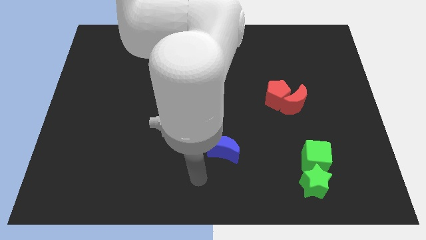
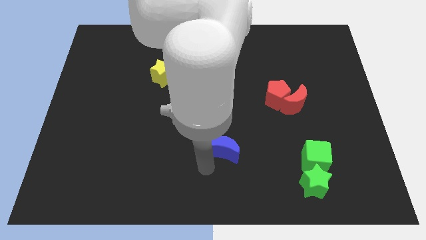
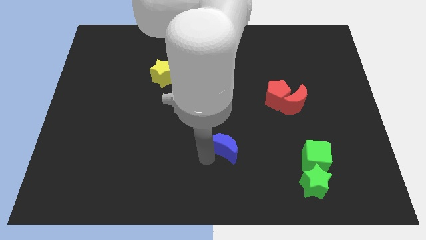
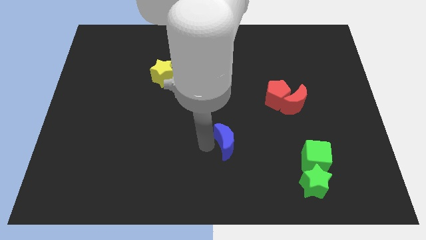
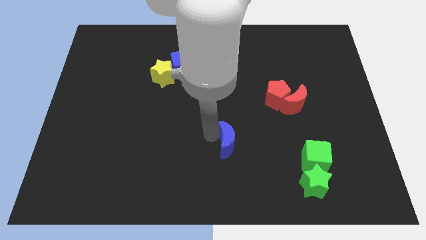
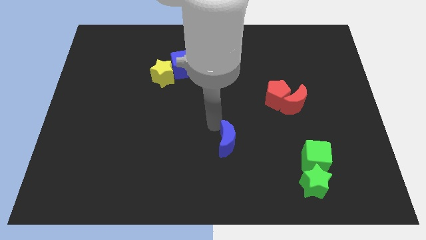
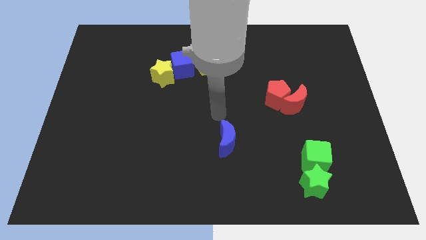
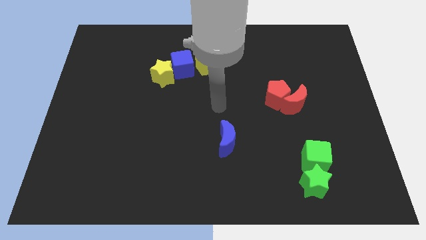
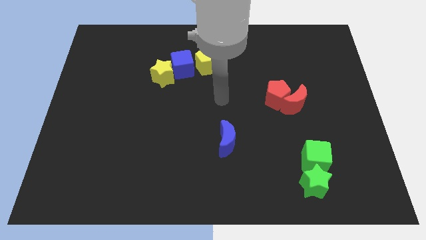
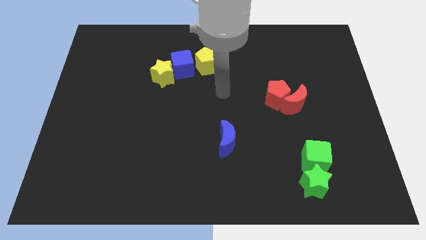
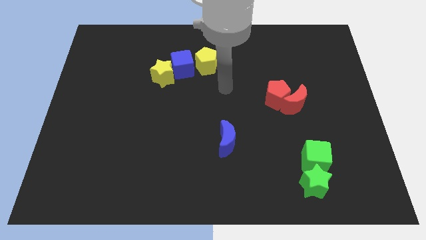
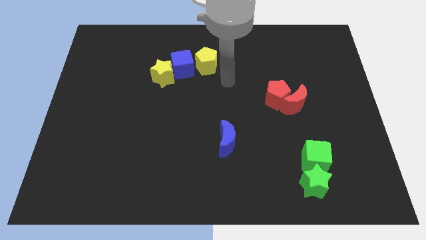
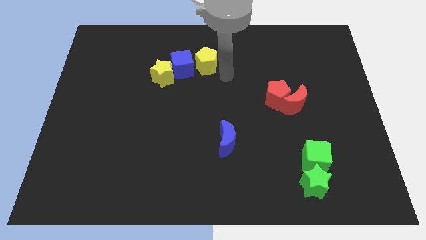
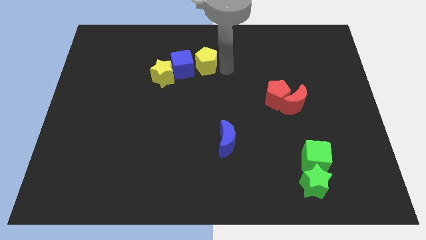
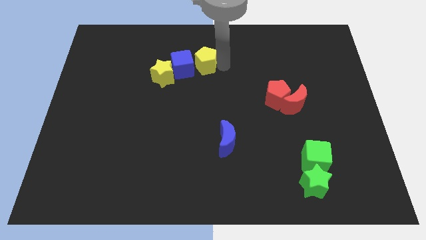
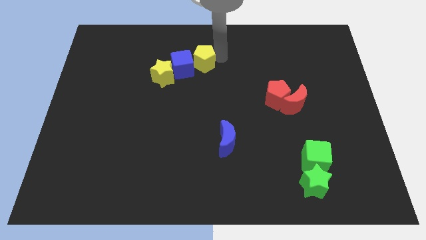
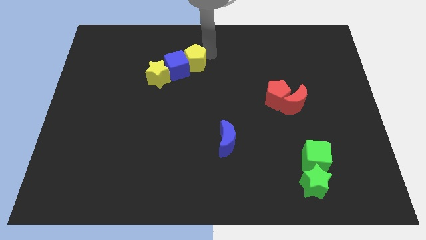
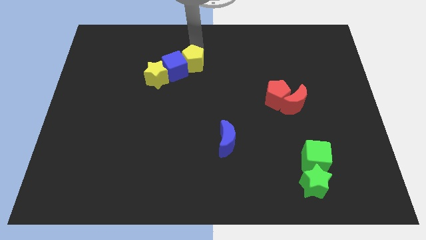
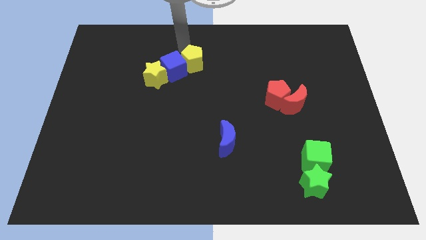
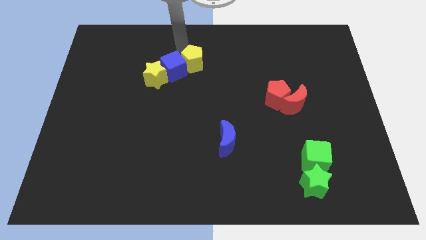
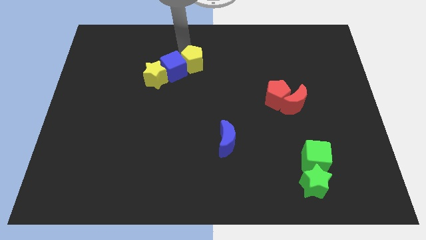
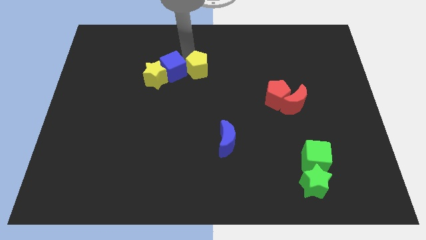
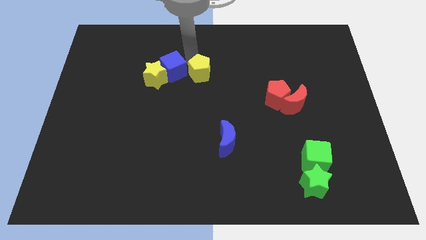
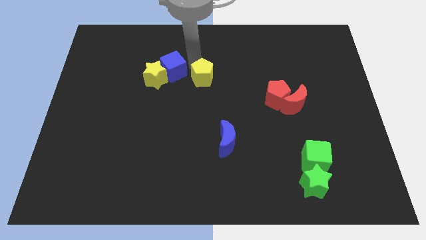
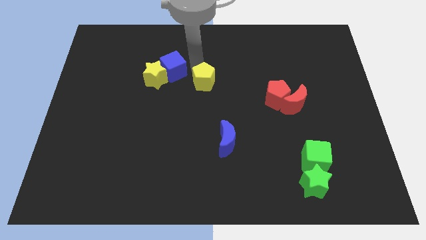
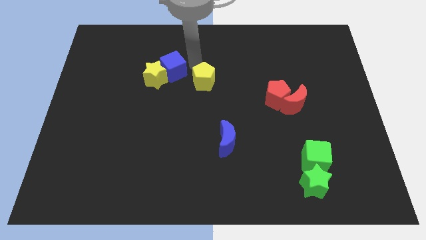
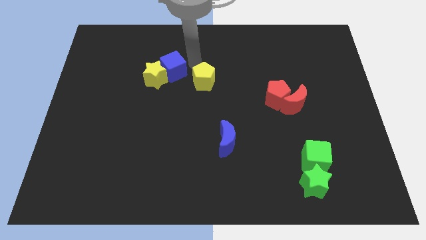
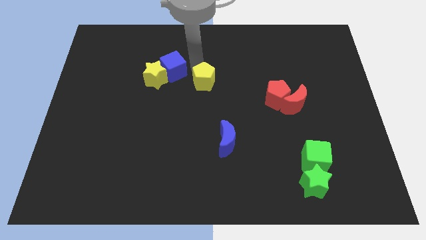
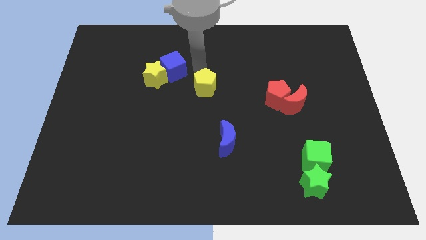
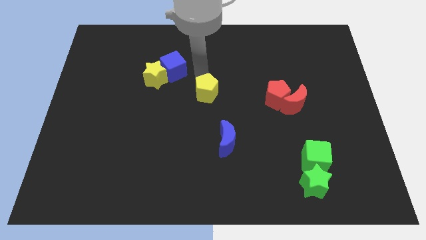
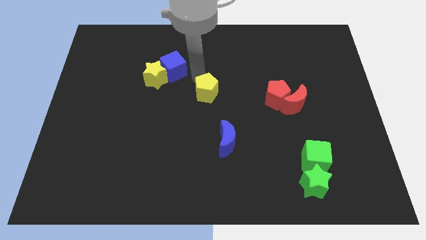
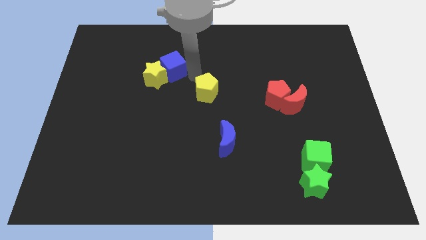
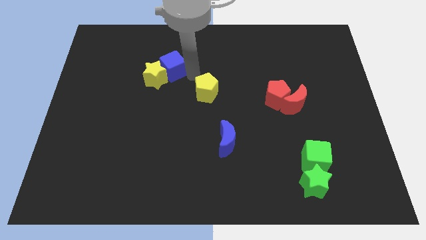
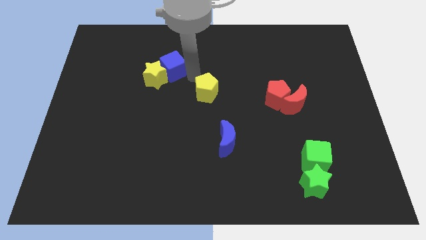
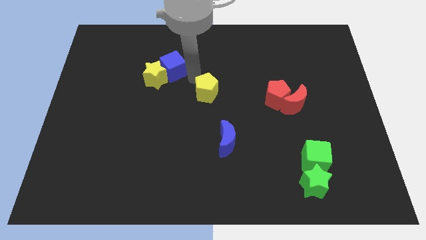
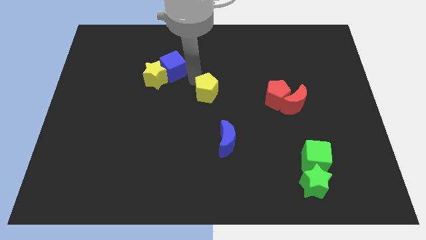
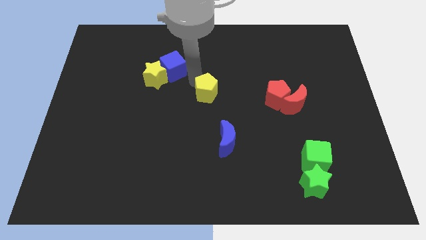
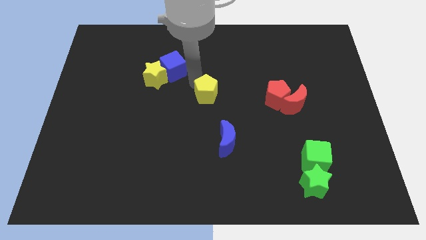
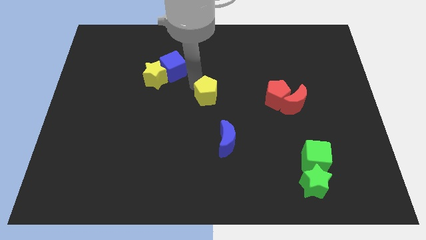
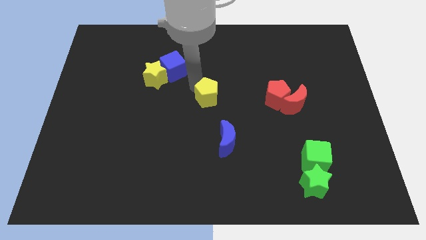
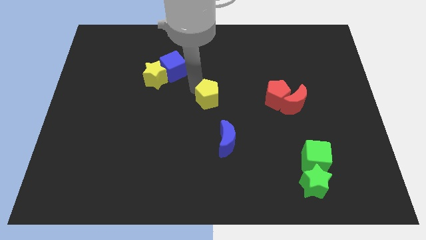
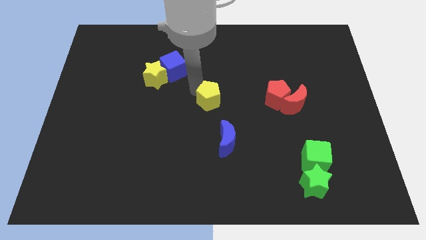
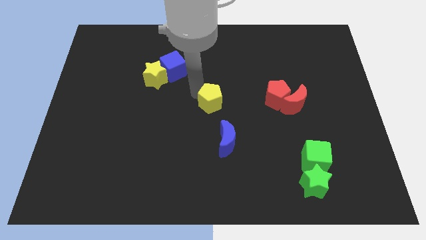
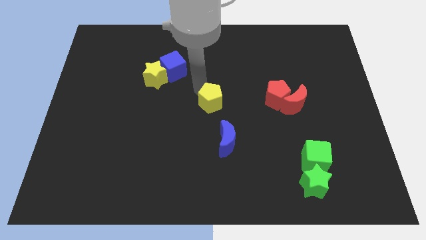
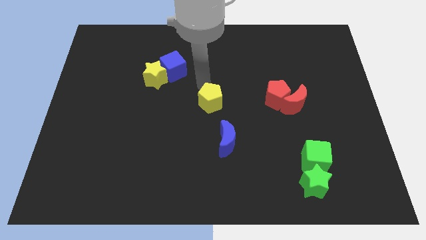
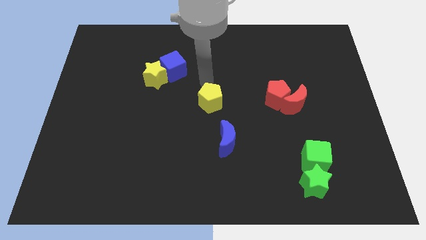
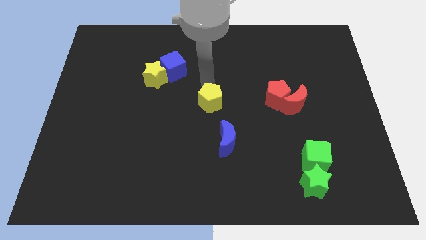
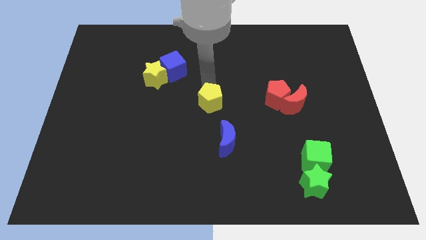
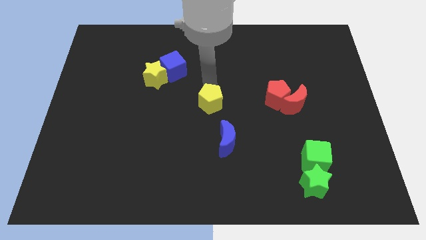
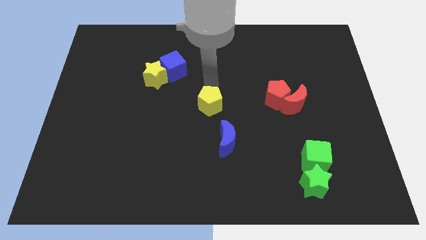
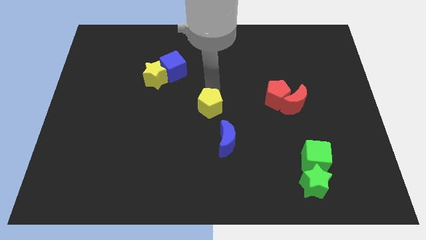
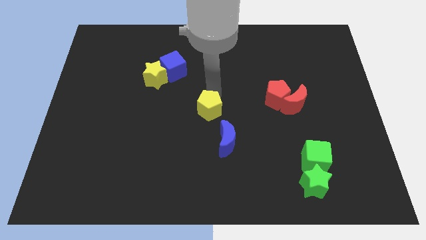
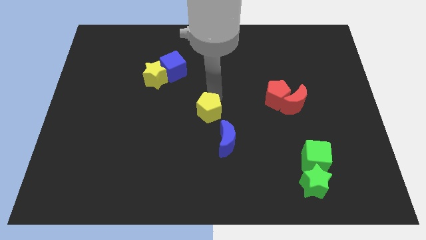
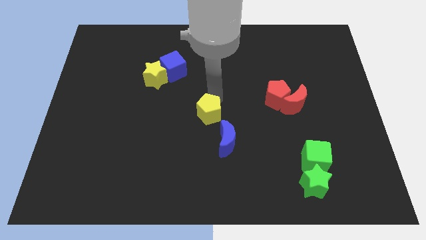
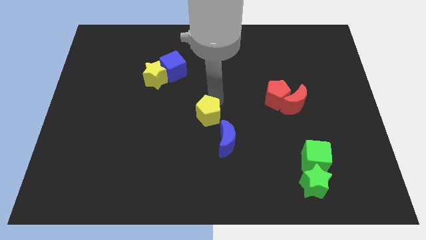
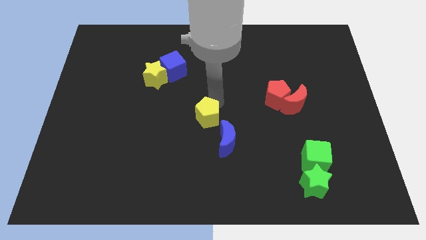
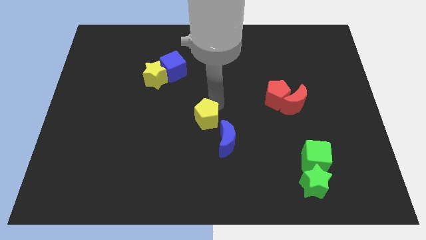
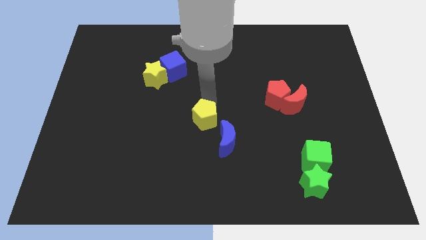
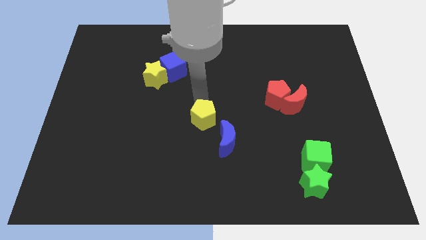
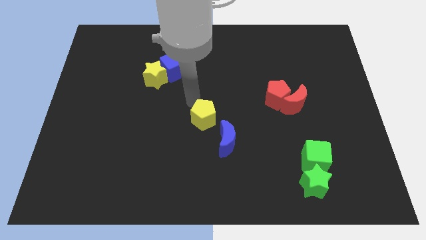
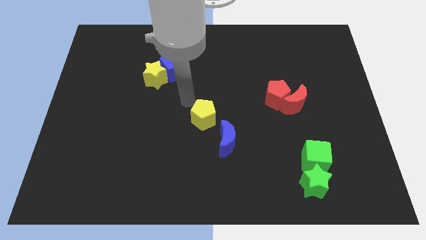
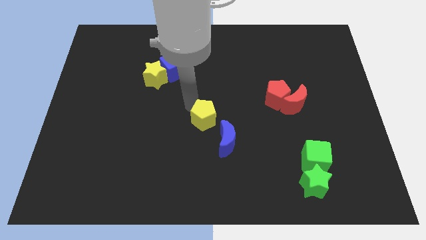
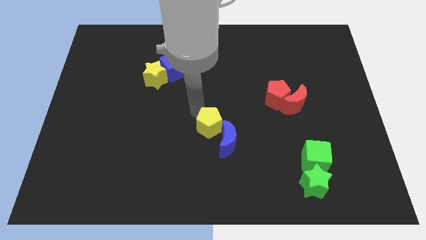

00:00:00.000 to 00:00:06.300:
slide the yellow pentagon towards the blue moon
